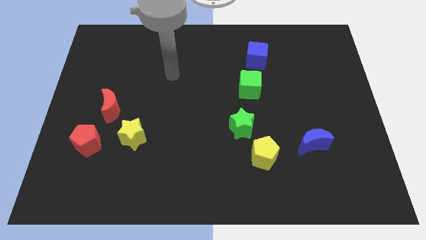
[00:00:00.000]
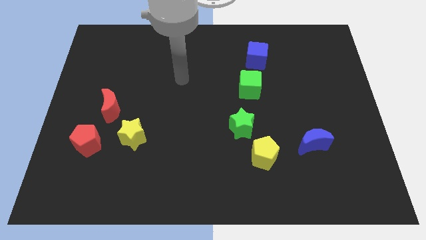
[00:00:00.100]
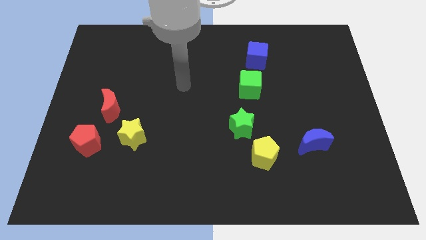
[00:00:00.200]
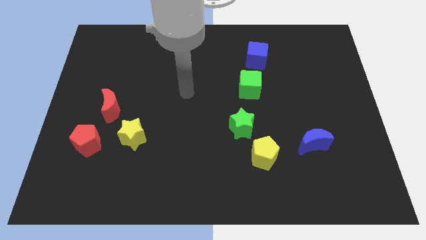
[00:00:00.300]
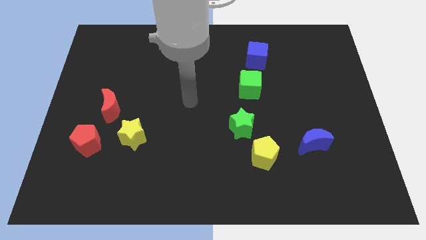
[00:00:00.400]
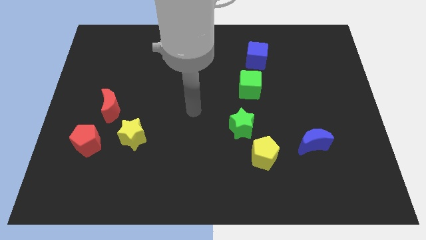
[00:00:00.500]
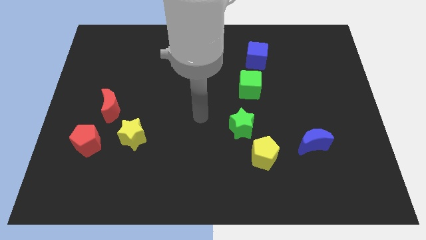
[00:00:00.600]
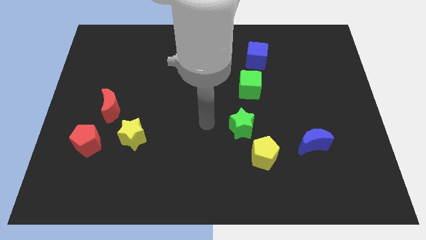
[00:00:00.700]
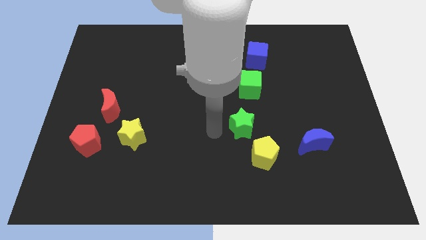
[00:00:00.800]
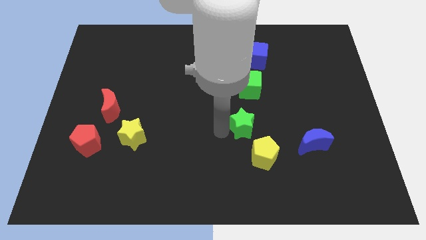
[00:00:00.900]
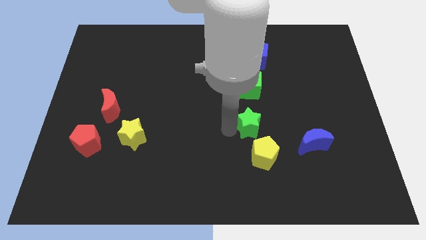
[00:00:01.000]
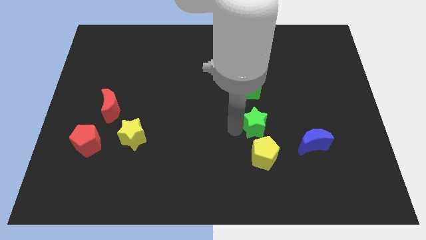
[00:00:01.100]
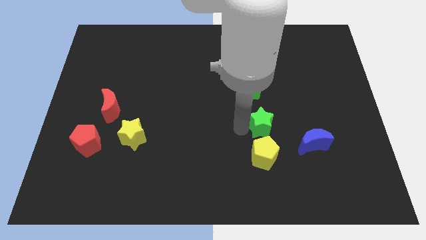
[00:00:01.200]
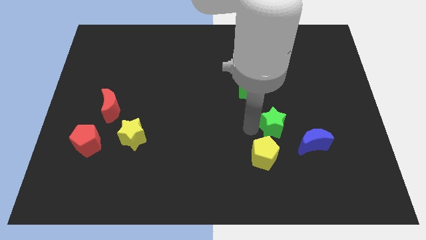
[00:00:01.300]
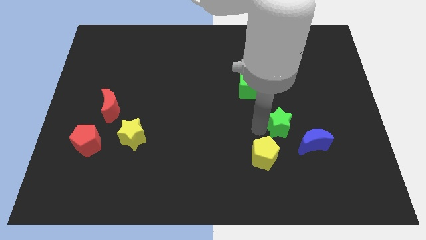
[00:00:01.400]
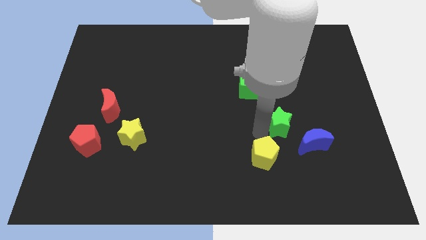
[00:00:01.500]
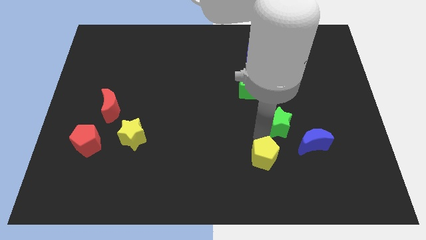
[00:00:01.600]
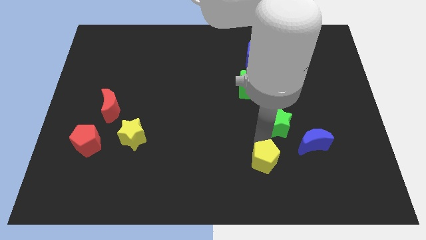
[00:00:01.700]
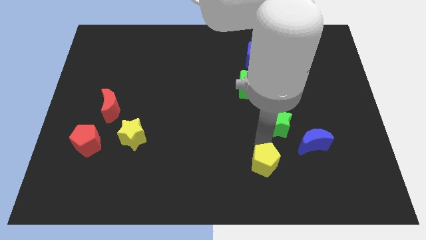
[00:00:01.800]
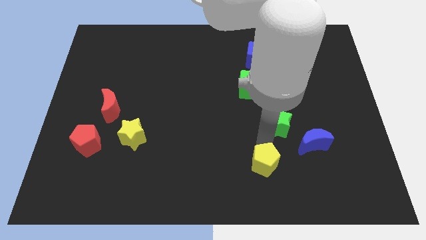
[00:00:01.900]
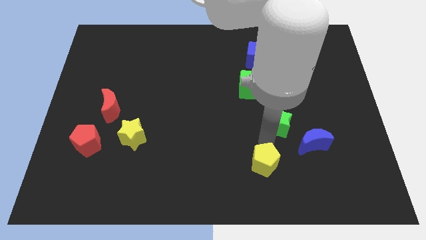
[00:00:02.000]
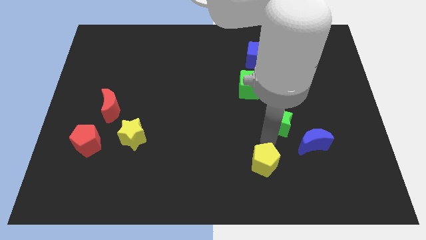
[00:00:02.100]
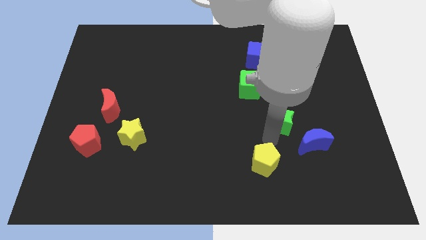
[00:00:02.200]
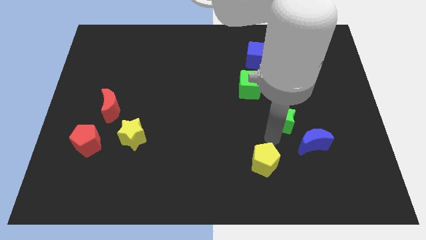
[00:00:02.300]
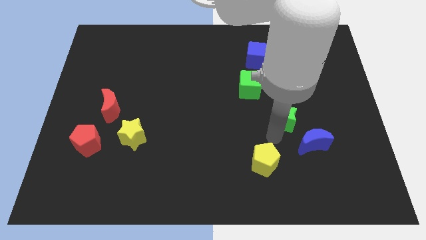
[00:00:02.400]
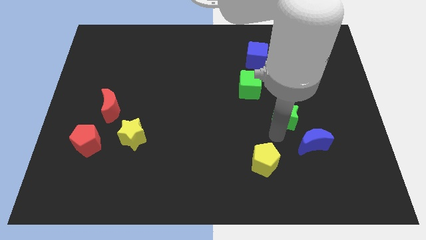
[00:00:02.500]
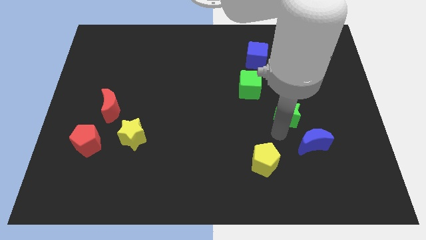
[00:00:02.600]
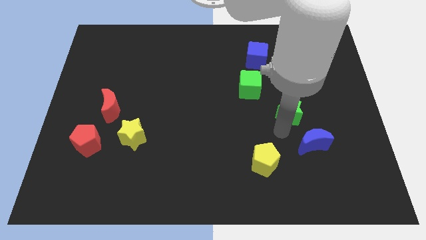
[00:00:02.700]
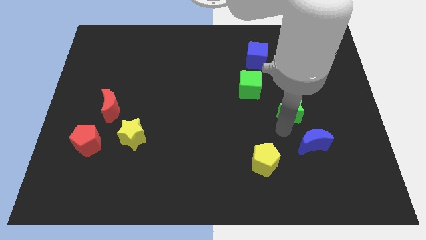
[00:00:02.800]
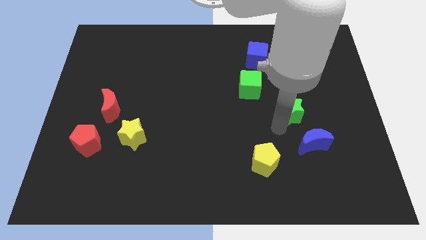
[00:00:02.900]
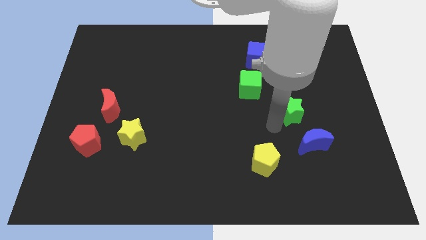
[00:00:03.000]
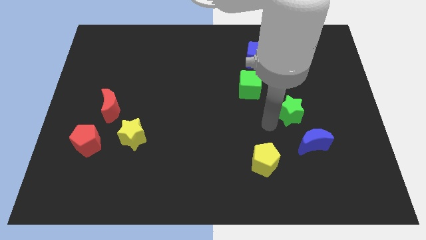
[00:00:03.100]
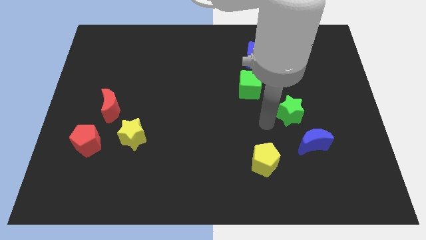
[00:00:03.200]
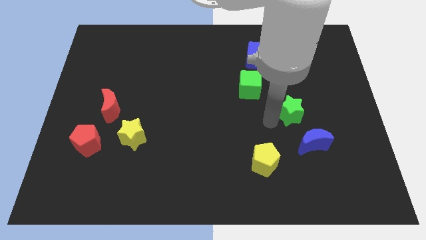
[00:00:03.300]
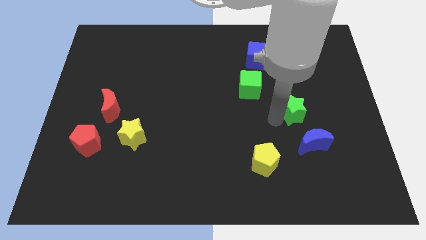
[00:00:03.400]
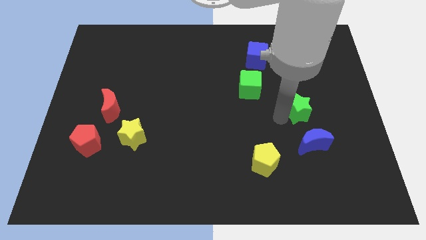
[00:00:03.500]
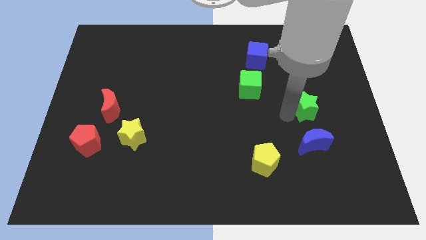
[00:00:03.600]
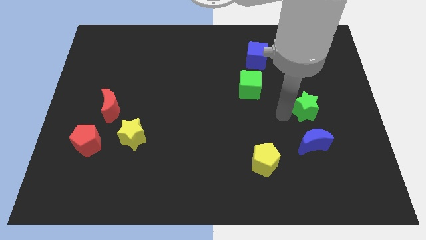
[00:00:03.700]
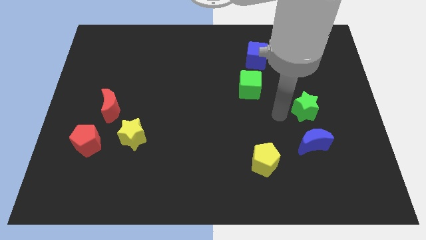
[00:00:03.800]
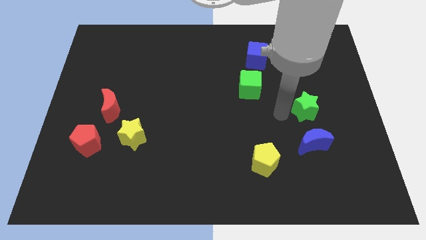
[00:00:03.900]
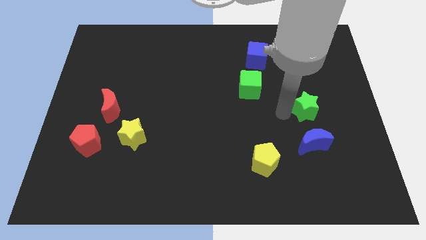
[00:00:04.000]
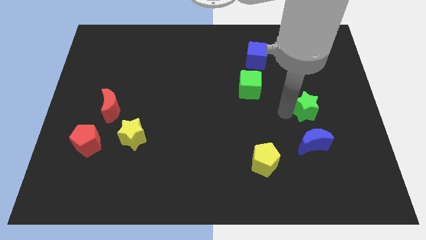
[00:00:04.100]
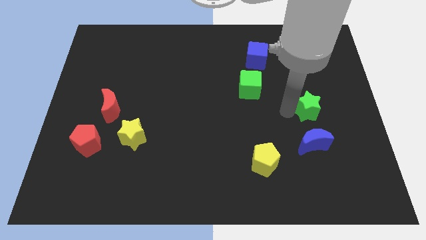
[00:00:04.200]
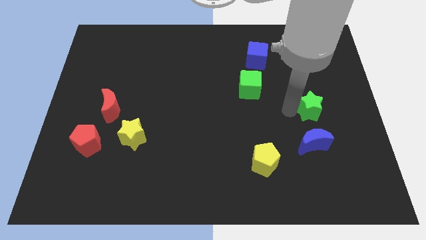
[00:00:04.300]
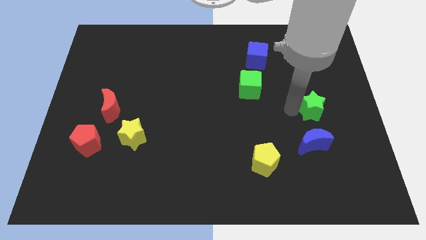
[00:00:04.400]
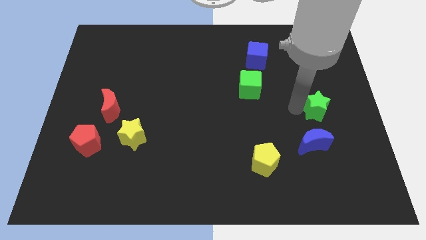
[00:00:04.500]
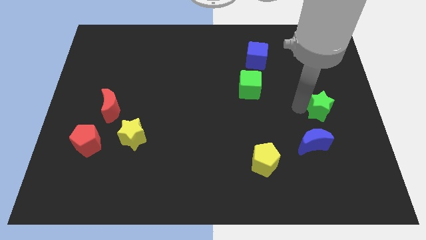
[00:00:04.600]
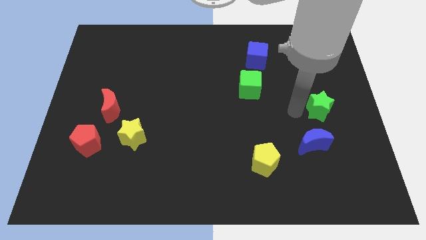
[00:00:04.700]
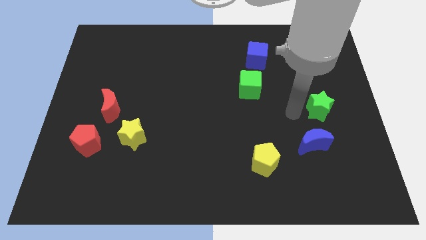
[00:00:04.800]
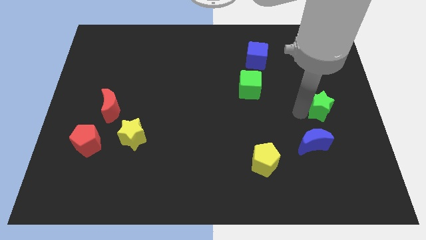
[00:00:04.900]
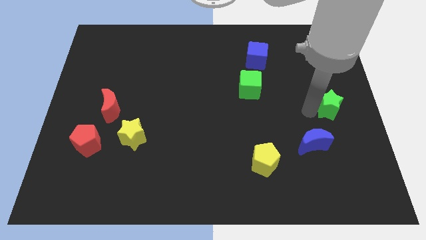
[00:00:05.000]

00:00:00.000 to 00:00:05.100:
slide the green star to the right side

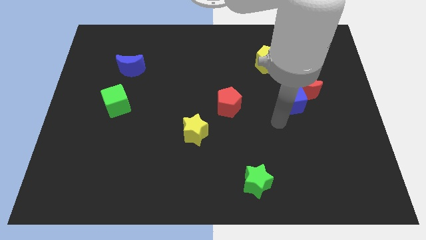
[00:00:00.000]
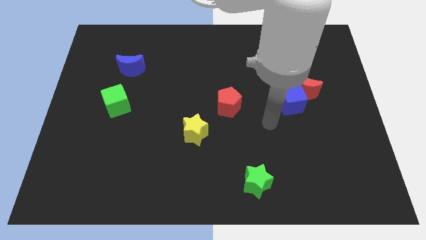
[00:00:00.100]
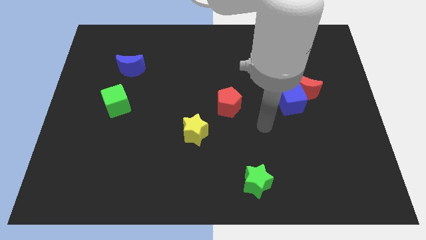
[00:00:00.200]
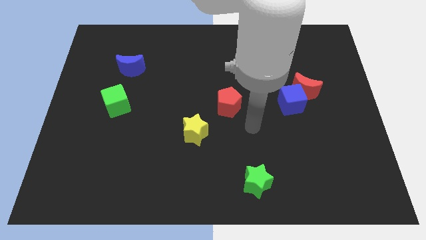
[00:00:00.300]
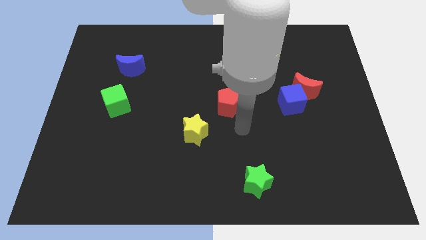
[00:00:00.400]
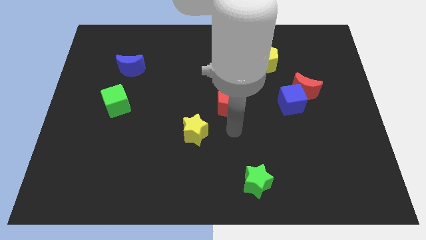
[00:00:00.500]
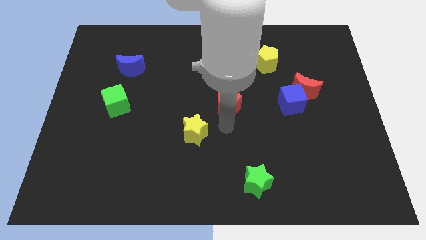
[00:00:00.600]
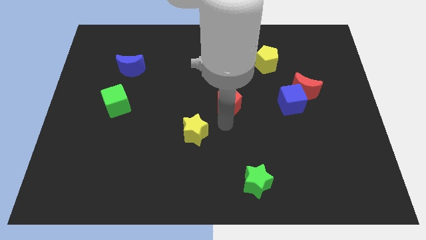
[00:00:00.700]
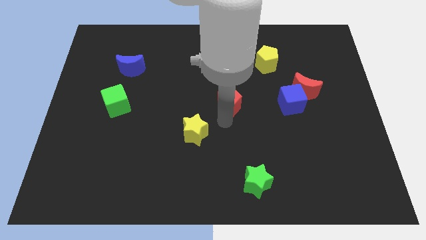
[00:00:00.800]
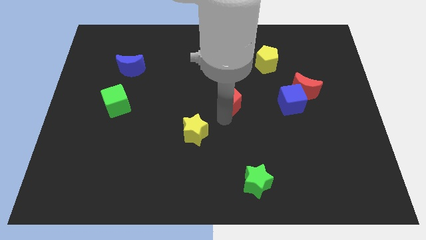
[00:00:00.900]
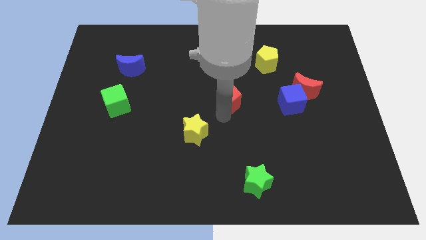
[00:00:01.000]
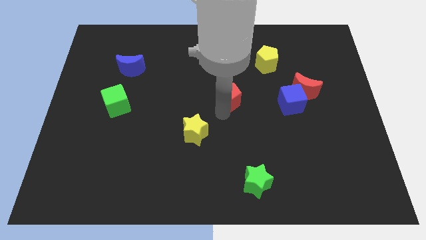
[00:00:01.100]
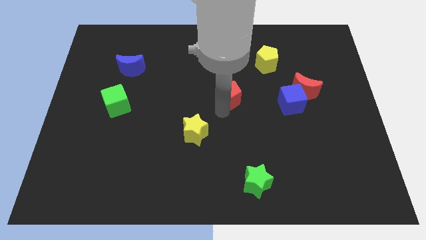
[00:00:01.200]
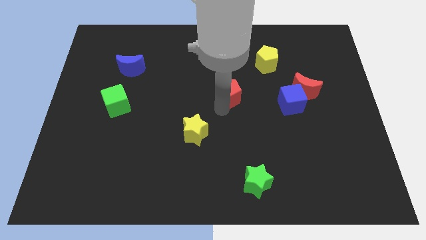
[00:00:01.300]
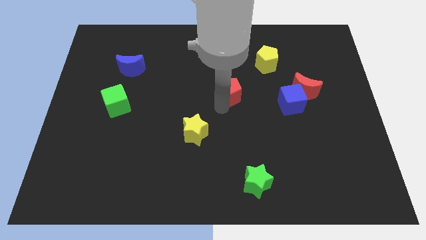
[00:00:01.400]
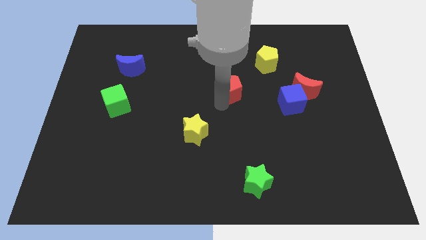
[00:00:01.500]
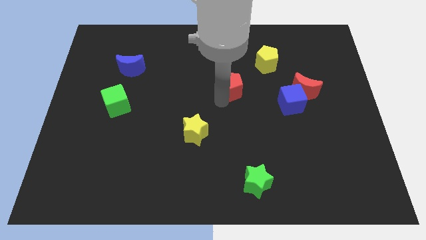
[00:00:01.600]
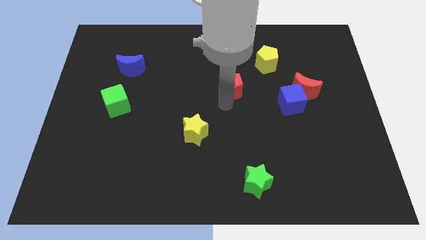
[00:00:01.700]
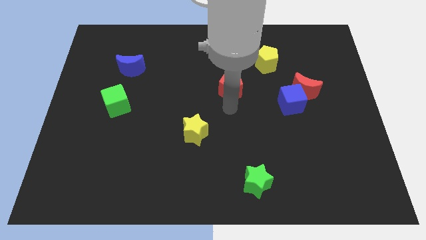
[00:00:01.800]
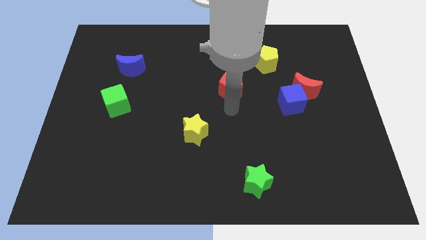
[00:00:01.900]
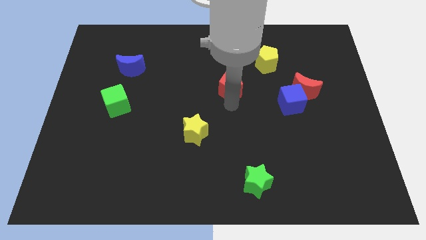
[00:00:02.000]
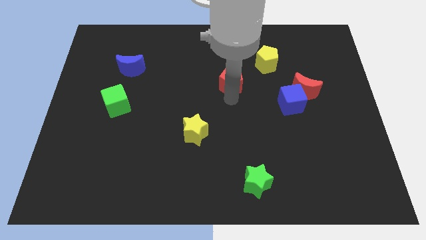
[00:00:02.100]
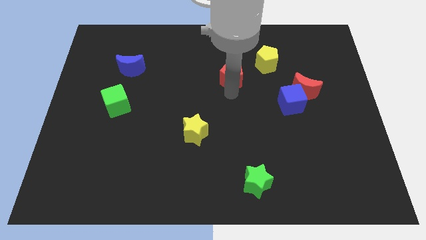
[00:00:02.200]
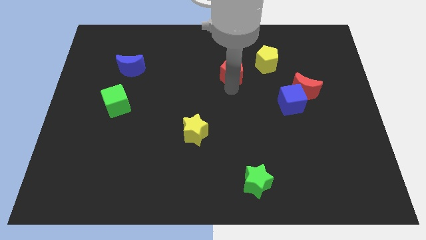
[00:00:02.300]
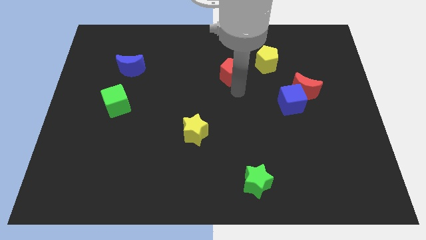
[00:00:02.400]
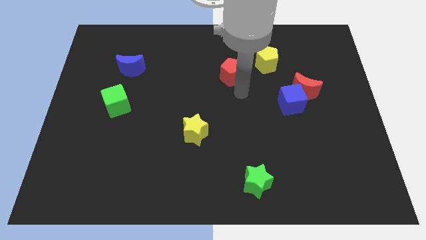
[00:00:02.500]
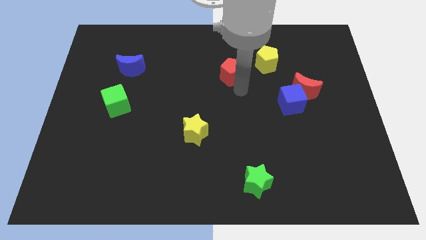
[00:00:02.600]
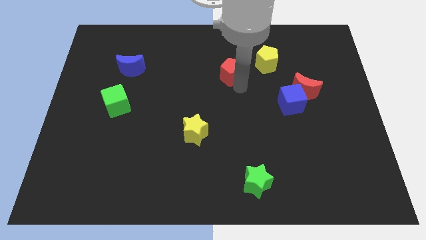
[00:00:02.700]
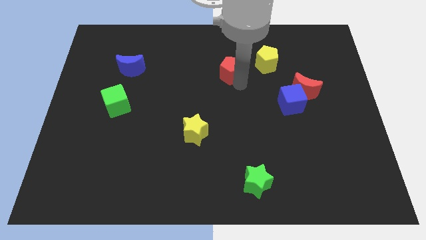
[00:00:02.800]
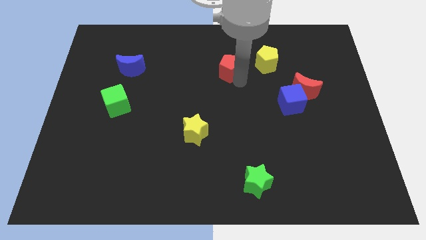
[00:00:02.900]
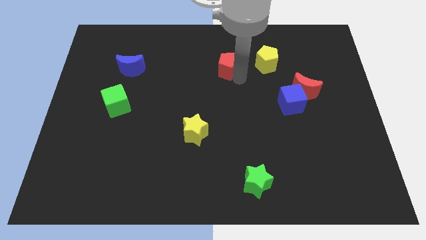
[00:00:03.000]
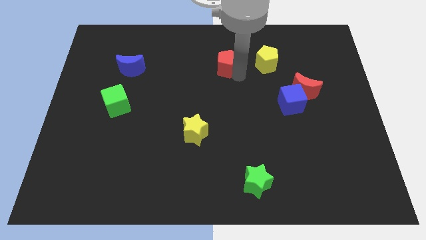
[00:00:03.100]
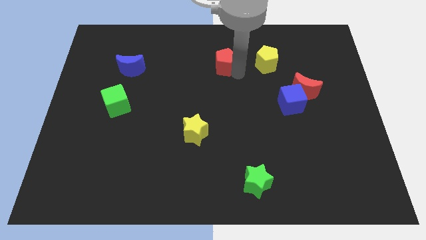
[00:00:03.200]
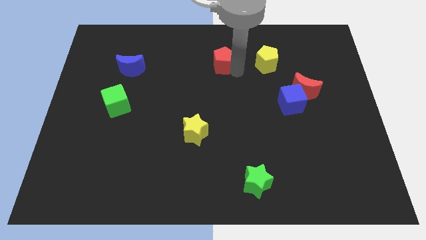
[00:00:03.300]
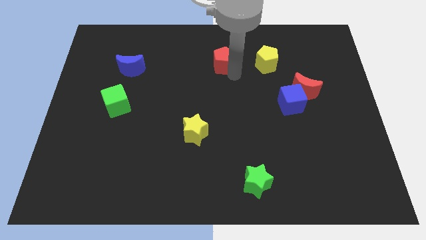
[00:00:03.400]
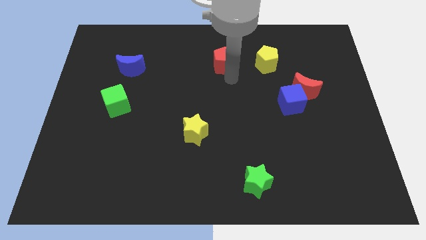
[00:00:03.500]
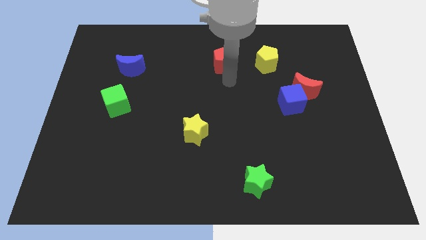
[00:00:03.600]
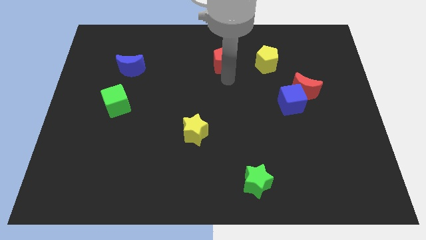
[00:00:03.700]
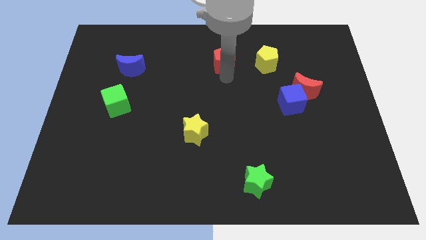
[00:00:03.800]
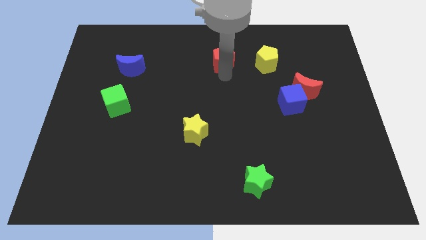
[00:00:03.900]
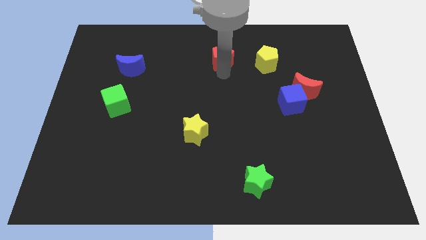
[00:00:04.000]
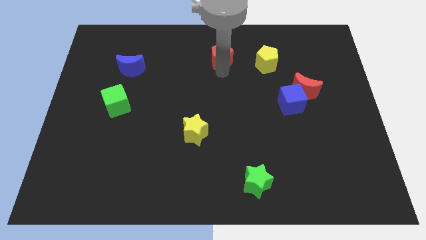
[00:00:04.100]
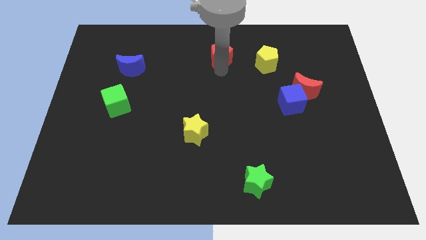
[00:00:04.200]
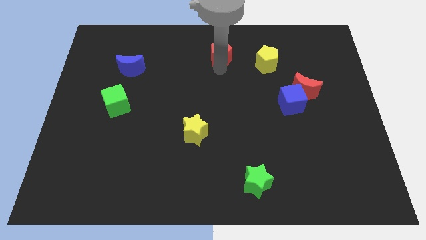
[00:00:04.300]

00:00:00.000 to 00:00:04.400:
slide the red pentagon to the top side
